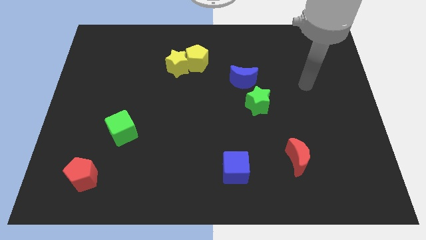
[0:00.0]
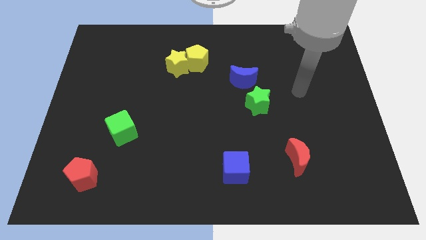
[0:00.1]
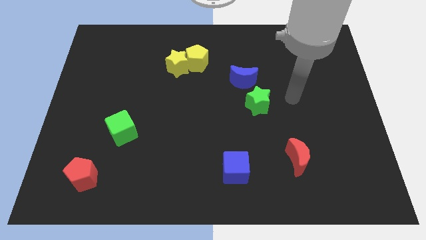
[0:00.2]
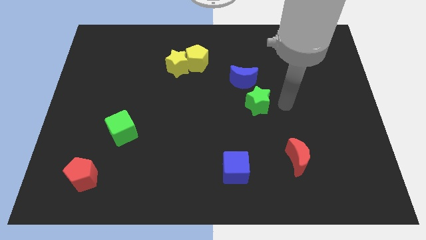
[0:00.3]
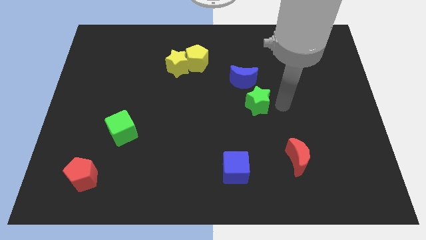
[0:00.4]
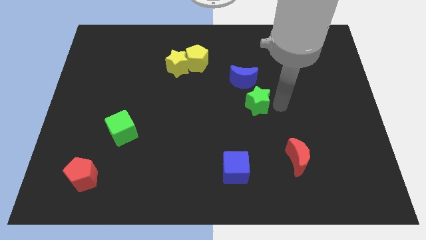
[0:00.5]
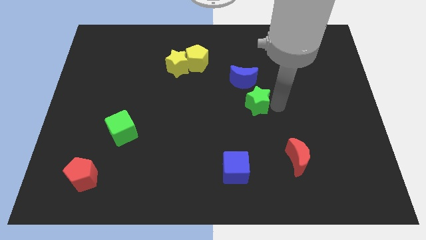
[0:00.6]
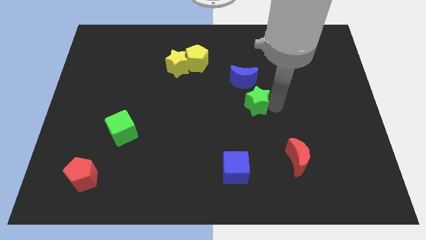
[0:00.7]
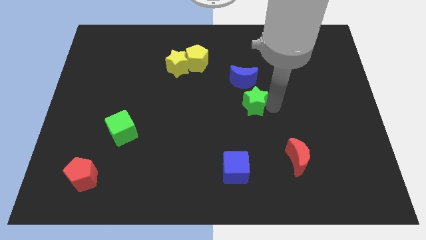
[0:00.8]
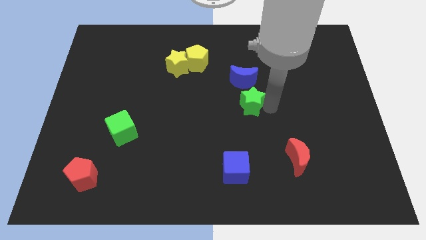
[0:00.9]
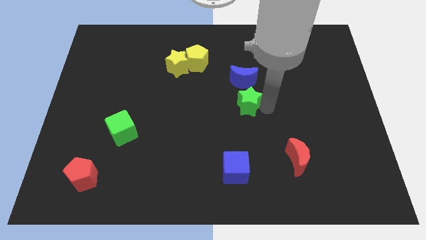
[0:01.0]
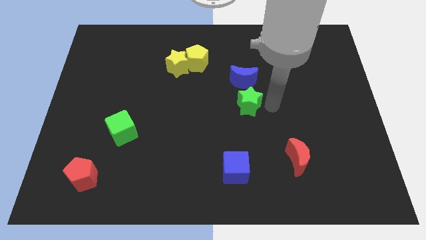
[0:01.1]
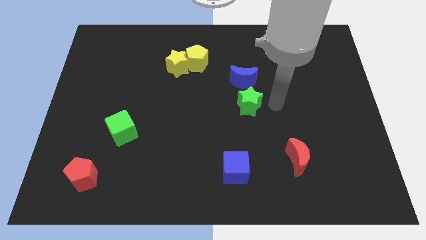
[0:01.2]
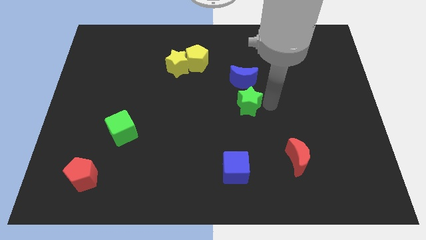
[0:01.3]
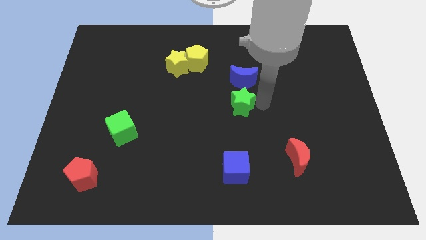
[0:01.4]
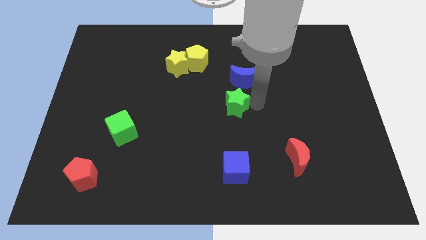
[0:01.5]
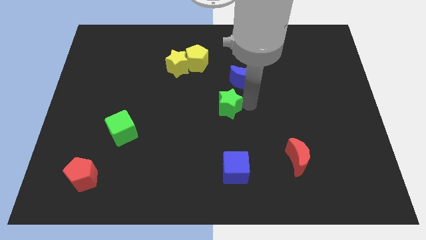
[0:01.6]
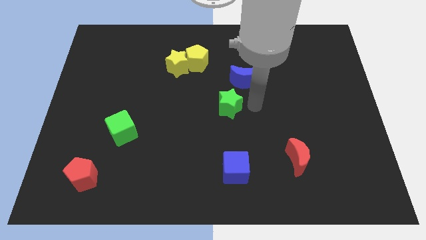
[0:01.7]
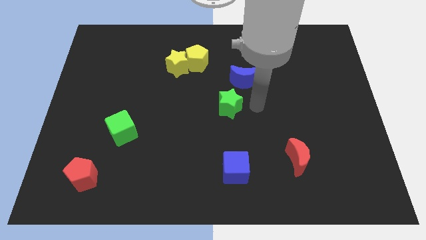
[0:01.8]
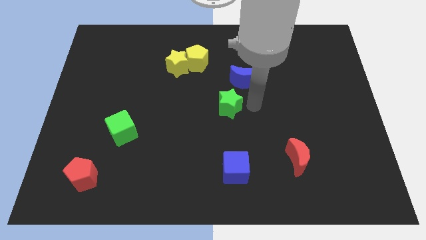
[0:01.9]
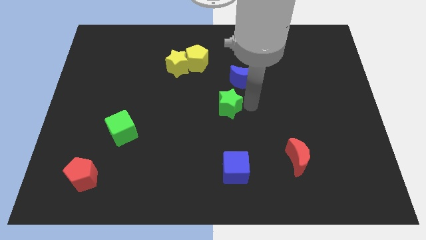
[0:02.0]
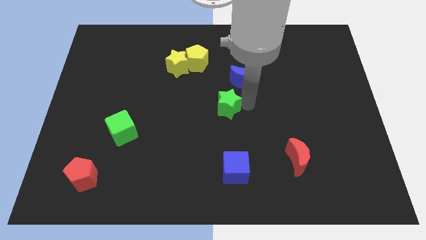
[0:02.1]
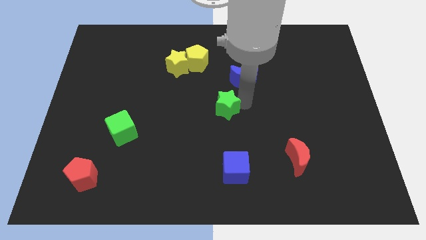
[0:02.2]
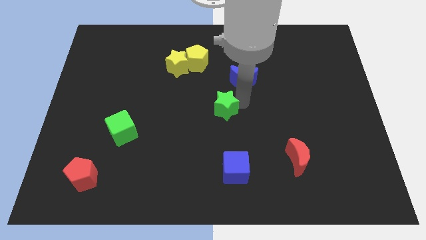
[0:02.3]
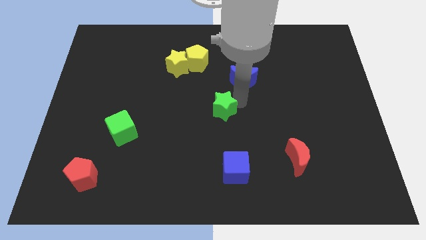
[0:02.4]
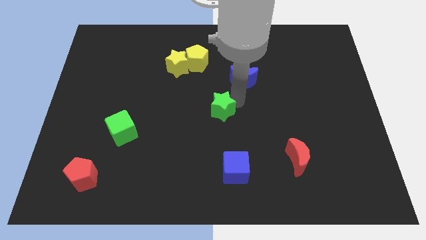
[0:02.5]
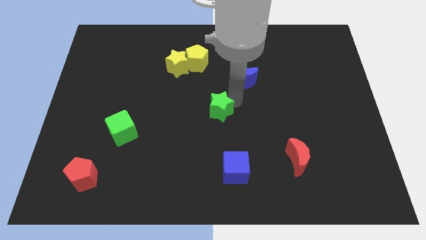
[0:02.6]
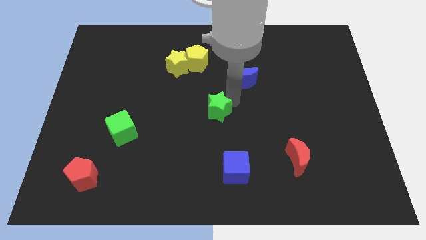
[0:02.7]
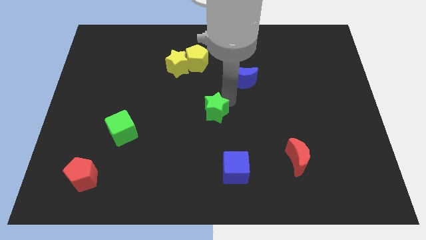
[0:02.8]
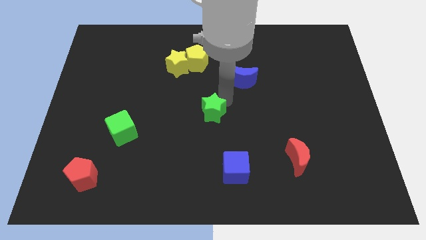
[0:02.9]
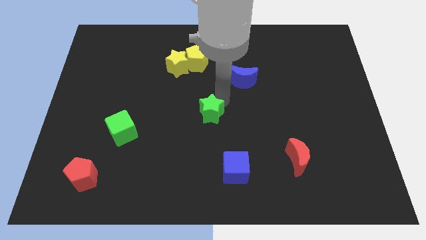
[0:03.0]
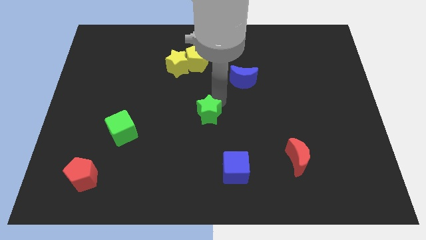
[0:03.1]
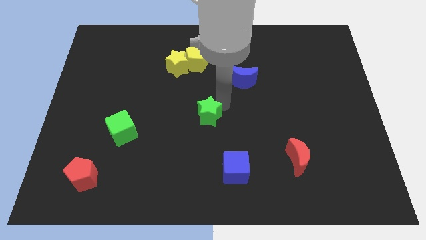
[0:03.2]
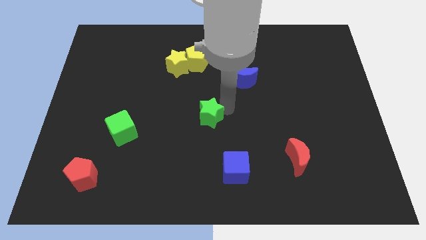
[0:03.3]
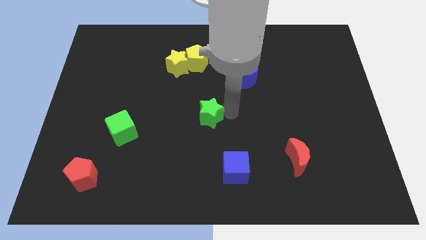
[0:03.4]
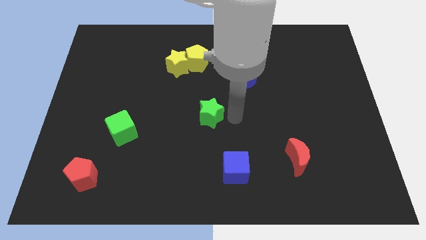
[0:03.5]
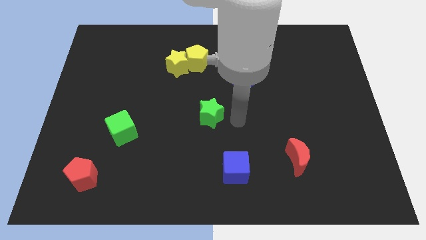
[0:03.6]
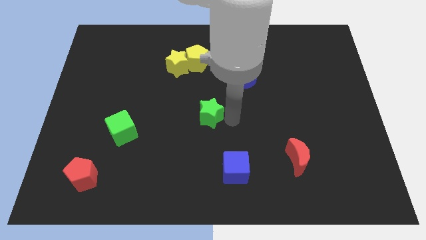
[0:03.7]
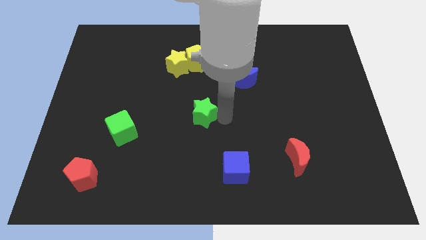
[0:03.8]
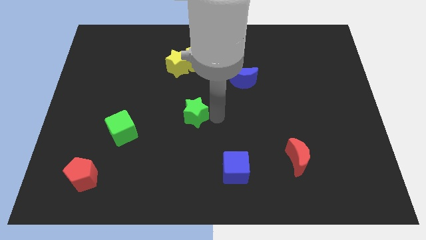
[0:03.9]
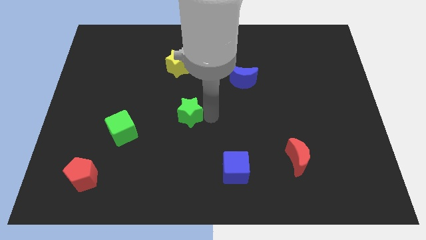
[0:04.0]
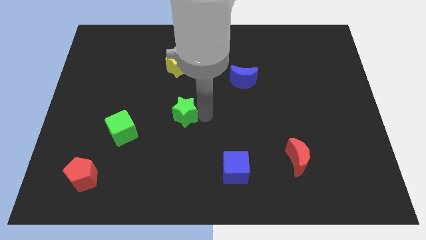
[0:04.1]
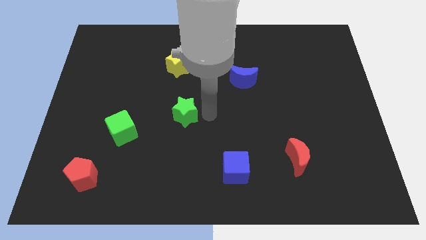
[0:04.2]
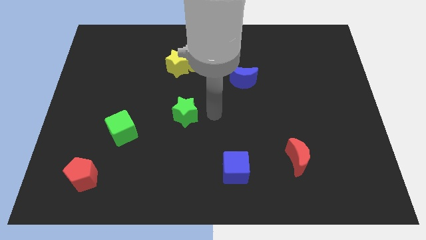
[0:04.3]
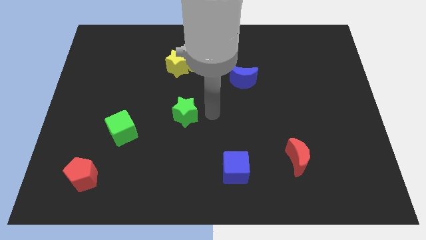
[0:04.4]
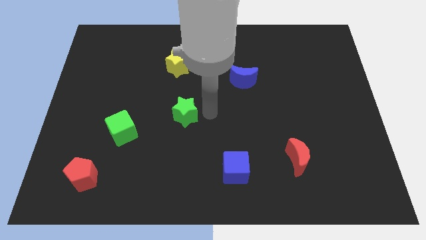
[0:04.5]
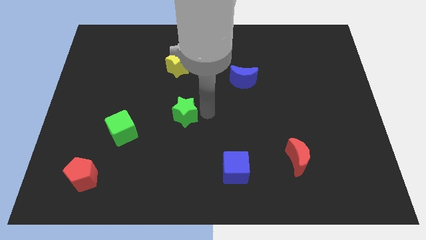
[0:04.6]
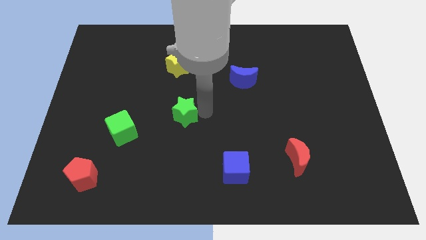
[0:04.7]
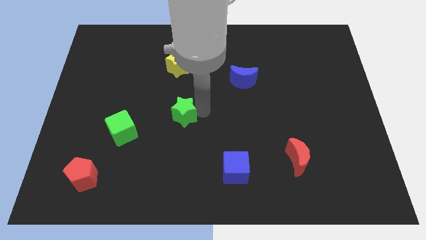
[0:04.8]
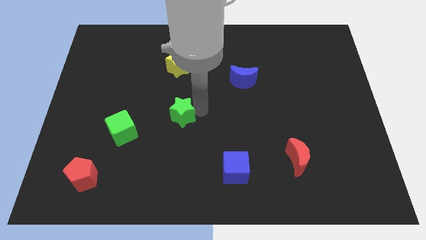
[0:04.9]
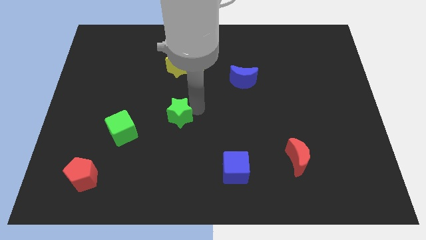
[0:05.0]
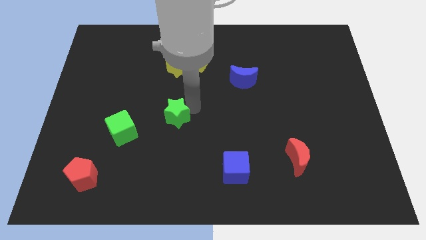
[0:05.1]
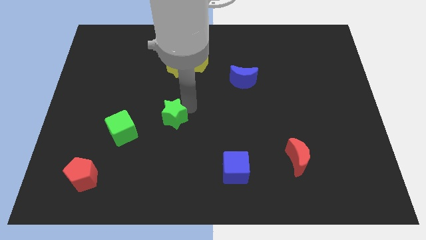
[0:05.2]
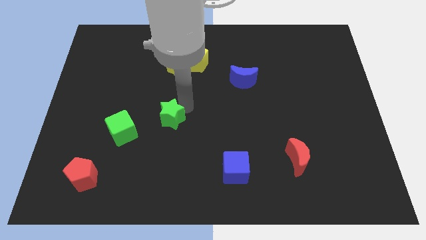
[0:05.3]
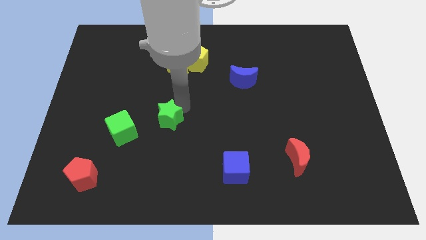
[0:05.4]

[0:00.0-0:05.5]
move the green star left

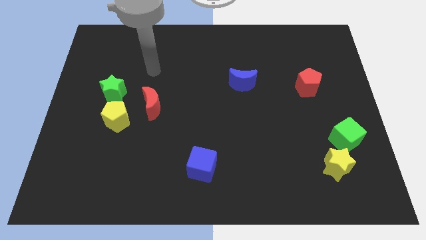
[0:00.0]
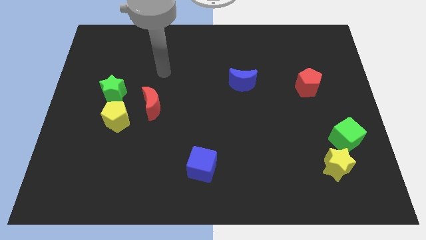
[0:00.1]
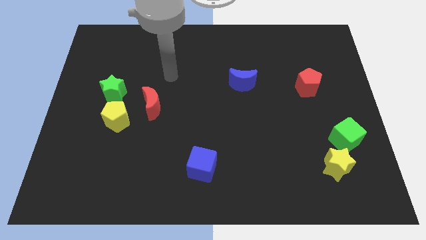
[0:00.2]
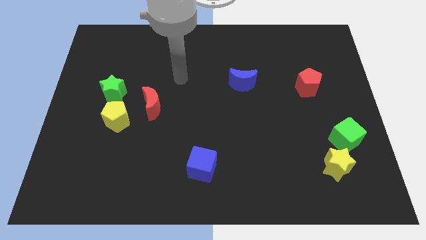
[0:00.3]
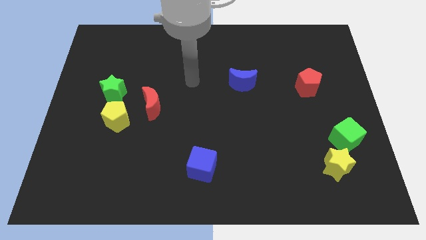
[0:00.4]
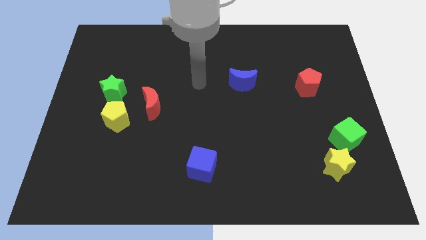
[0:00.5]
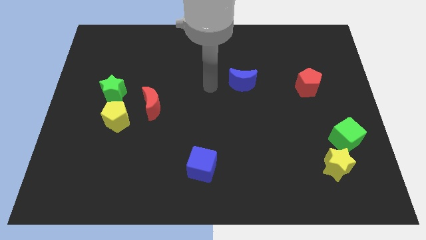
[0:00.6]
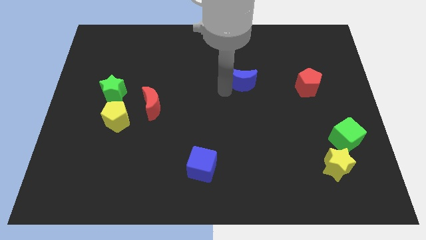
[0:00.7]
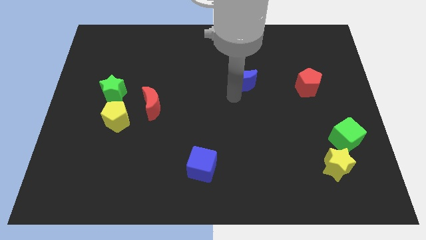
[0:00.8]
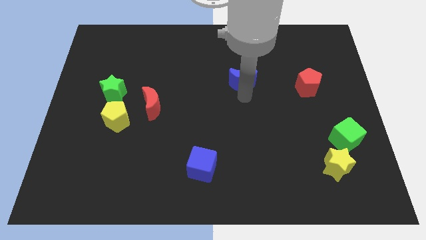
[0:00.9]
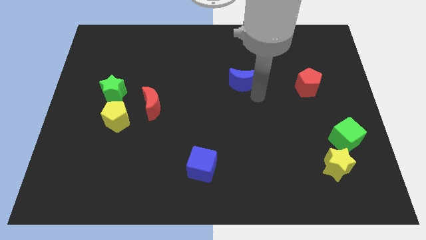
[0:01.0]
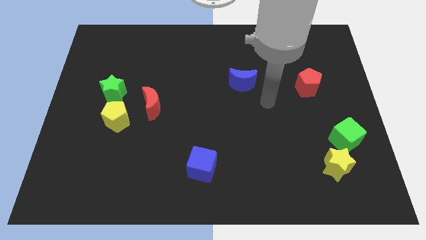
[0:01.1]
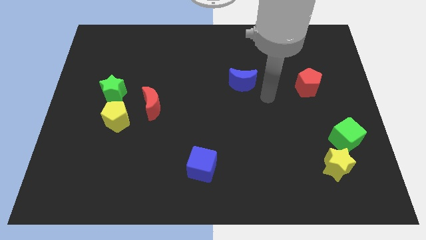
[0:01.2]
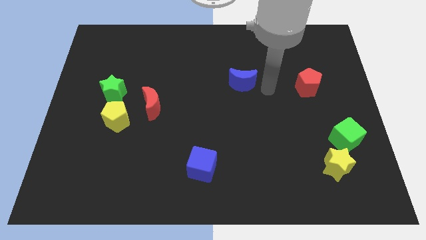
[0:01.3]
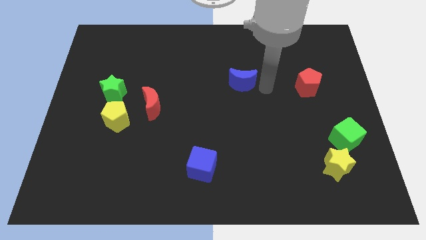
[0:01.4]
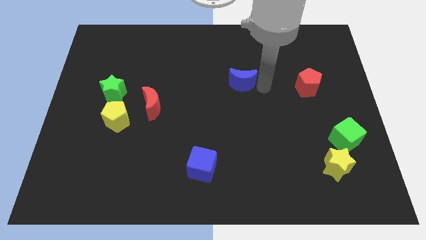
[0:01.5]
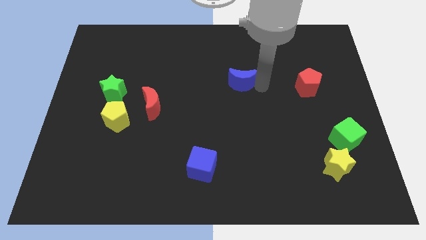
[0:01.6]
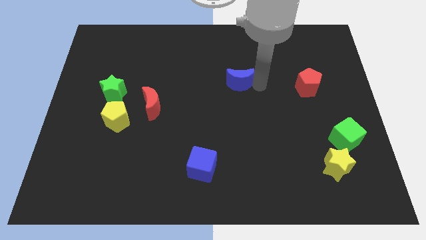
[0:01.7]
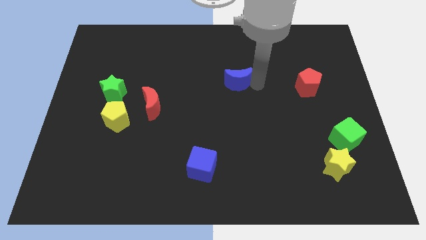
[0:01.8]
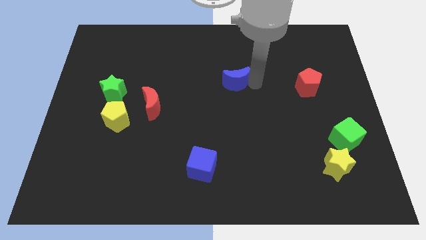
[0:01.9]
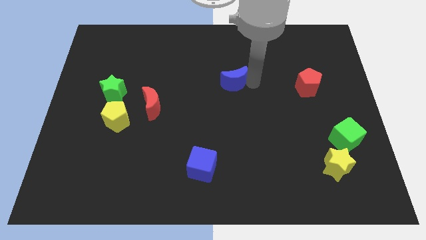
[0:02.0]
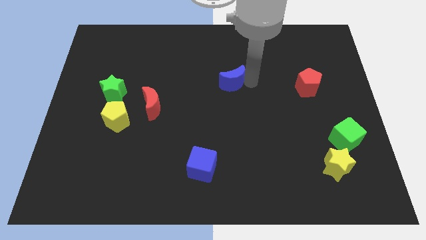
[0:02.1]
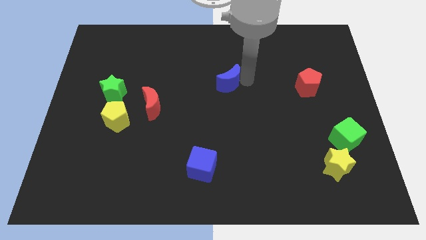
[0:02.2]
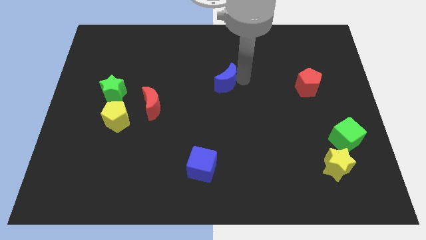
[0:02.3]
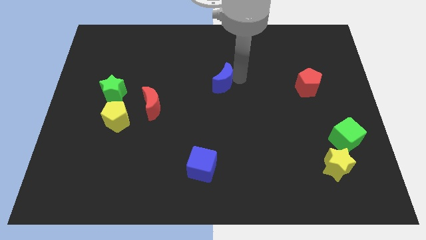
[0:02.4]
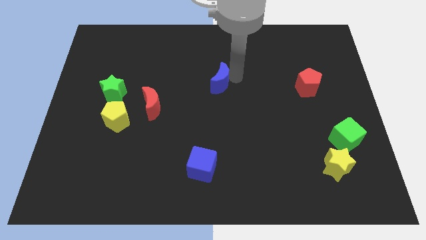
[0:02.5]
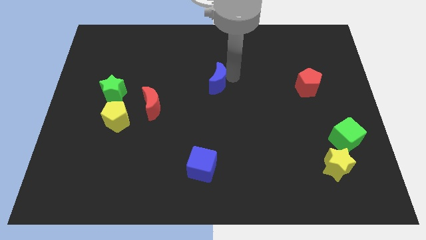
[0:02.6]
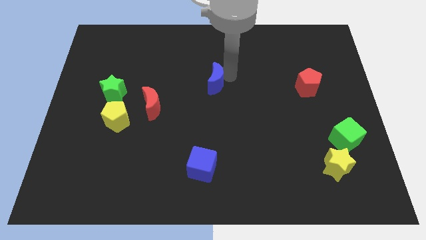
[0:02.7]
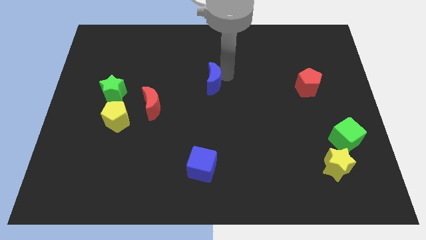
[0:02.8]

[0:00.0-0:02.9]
slightly move the blue moon to the left

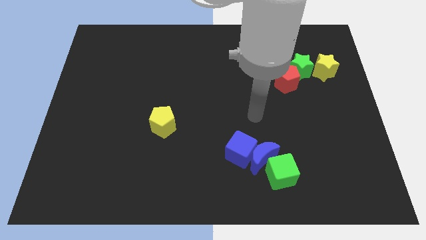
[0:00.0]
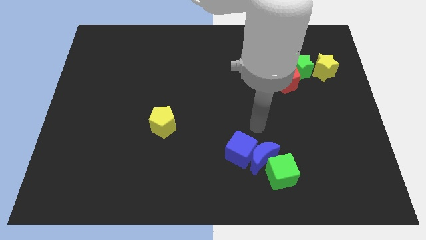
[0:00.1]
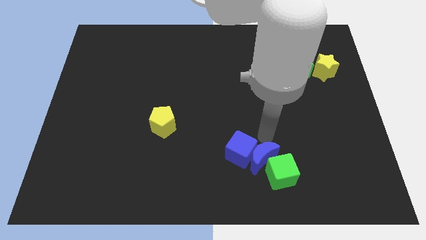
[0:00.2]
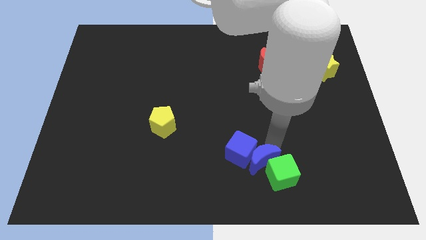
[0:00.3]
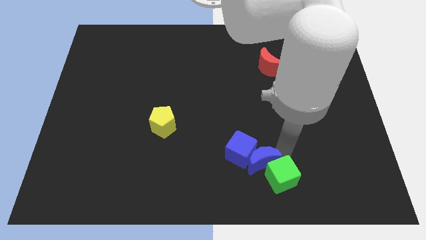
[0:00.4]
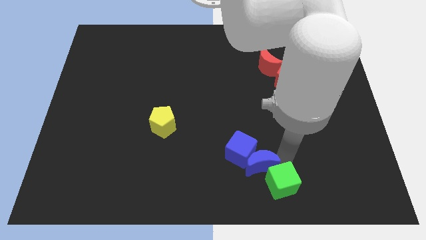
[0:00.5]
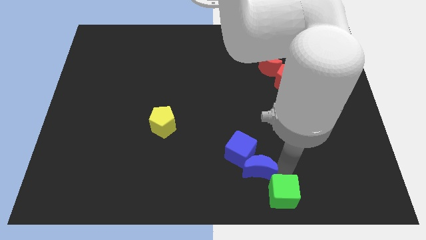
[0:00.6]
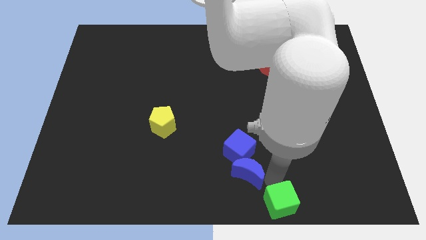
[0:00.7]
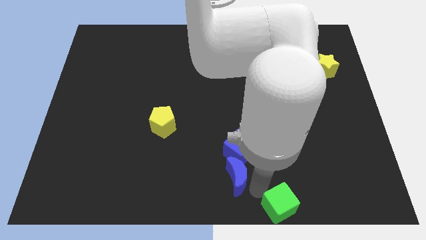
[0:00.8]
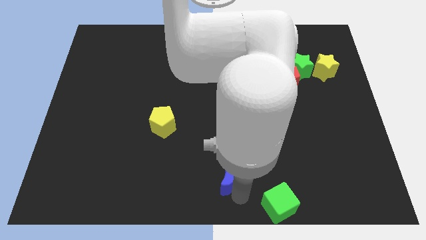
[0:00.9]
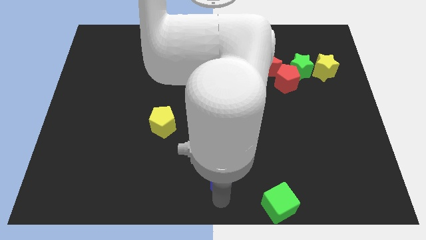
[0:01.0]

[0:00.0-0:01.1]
slightly push the blue moon to the left
